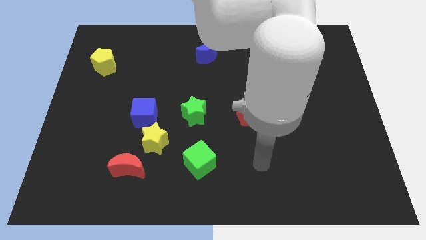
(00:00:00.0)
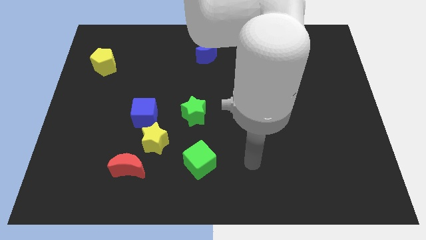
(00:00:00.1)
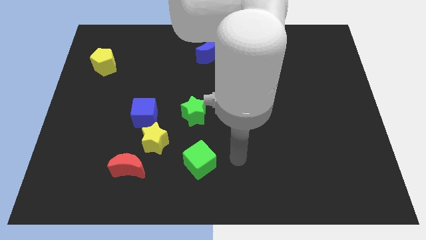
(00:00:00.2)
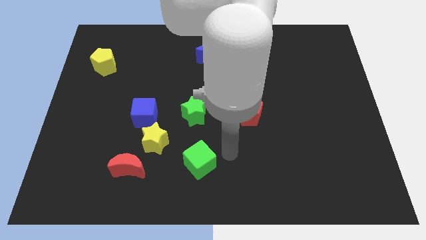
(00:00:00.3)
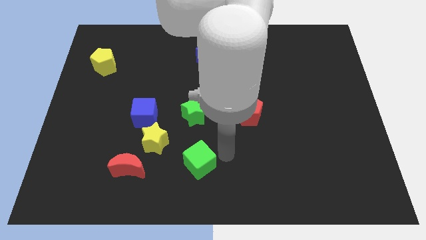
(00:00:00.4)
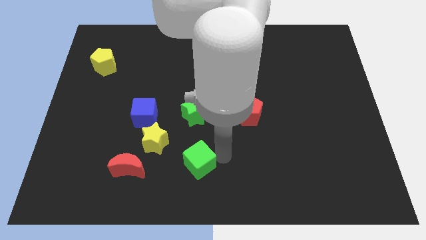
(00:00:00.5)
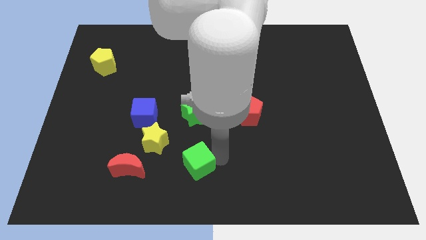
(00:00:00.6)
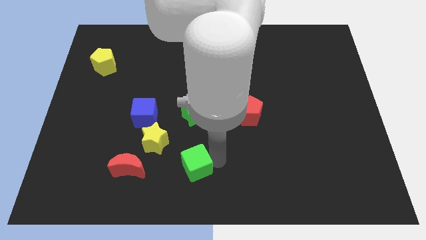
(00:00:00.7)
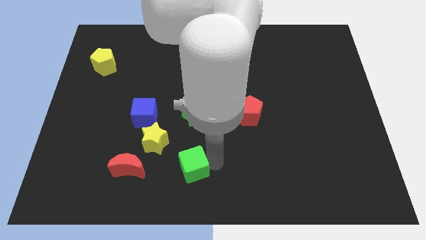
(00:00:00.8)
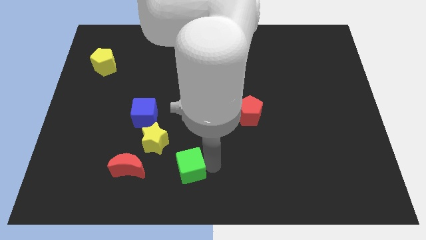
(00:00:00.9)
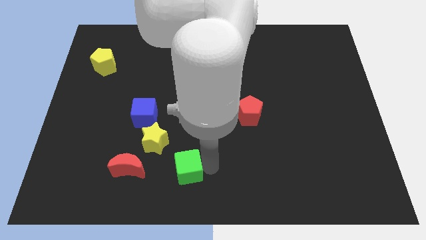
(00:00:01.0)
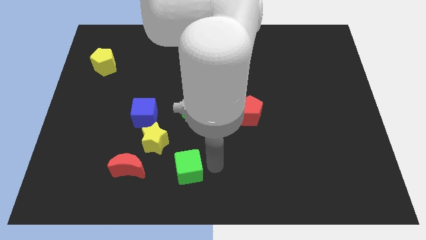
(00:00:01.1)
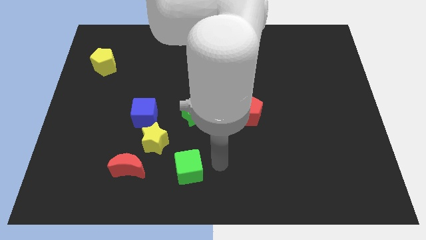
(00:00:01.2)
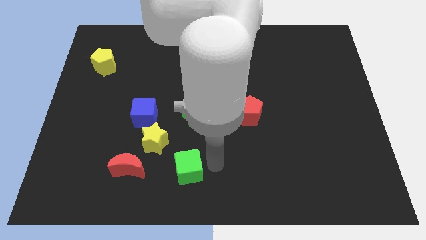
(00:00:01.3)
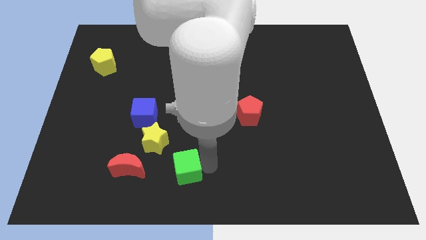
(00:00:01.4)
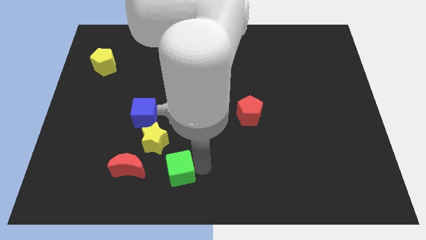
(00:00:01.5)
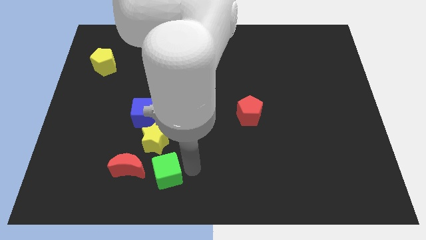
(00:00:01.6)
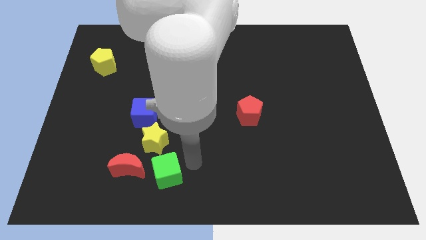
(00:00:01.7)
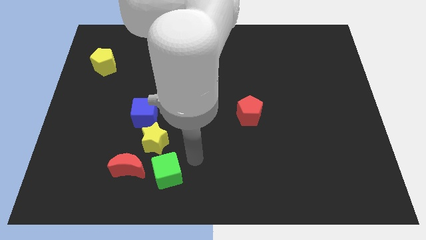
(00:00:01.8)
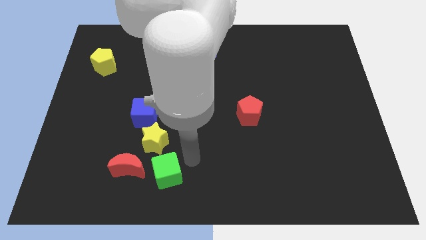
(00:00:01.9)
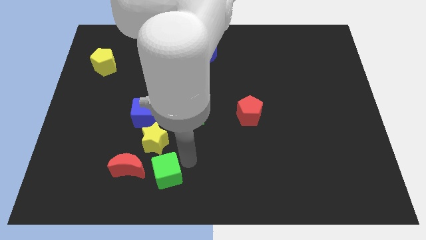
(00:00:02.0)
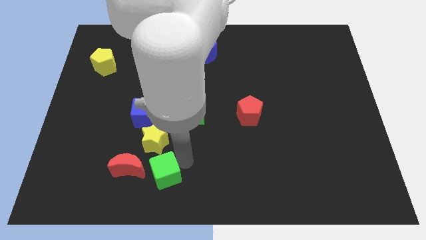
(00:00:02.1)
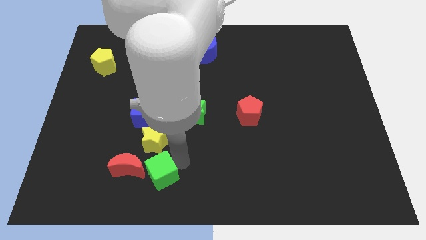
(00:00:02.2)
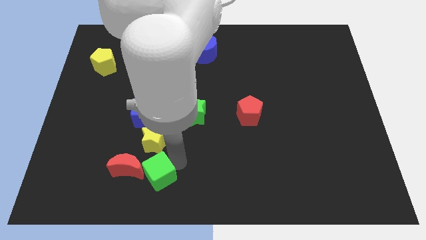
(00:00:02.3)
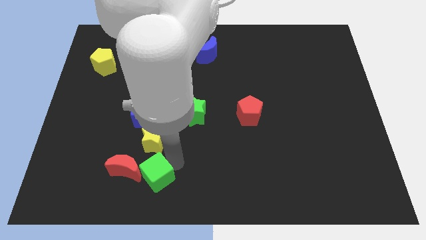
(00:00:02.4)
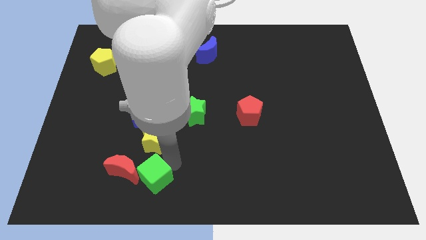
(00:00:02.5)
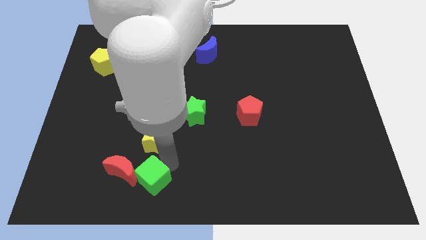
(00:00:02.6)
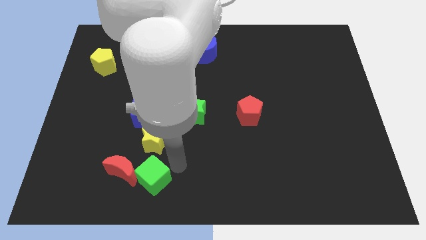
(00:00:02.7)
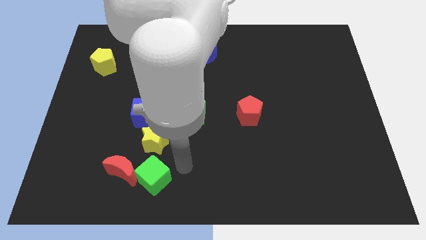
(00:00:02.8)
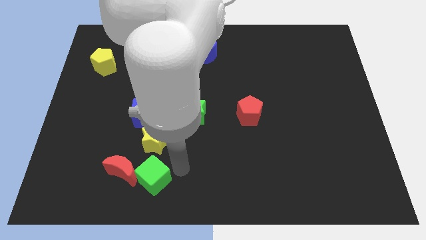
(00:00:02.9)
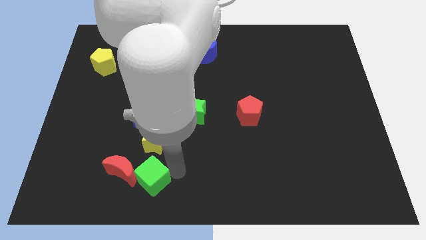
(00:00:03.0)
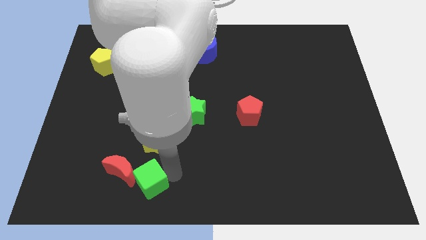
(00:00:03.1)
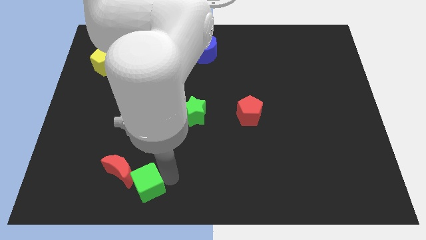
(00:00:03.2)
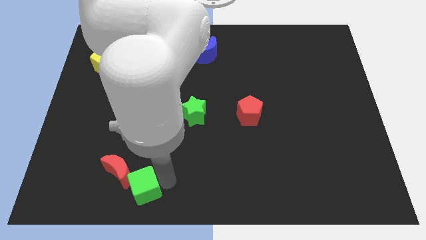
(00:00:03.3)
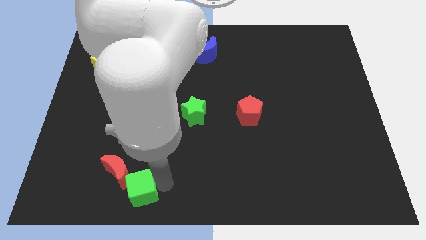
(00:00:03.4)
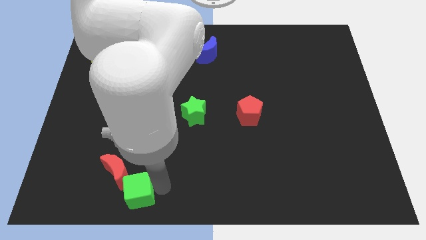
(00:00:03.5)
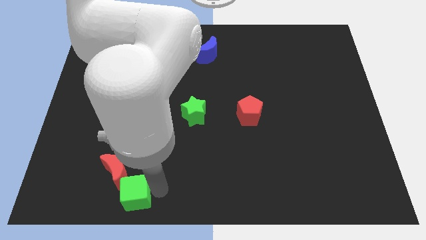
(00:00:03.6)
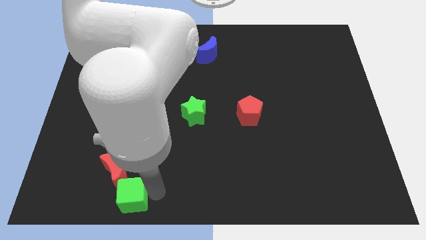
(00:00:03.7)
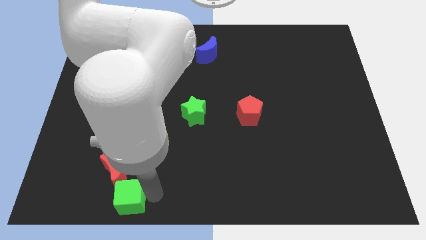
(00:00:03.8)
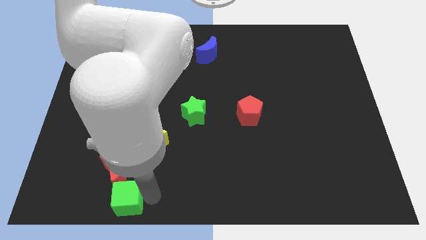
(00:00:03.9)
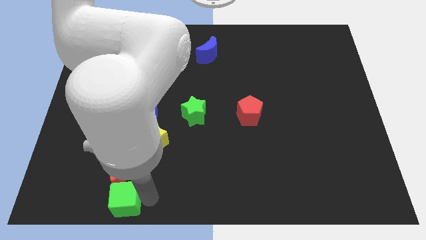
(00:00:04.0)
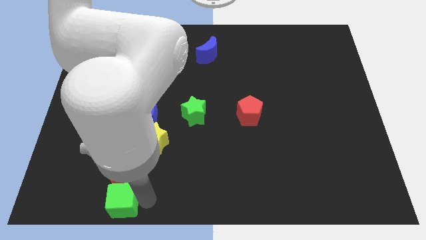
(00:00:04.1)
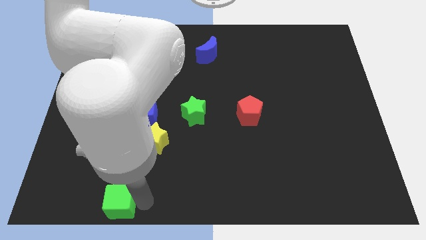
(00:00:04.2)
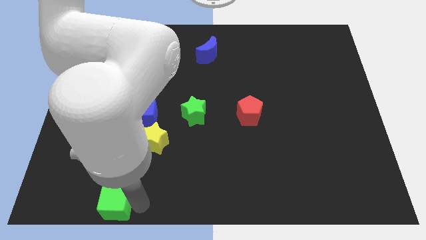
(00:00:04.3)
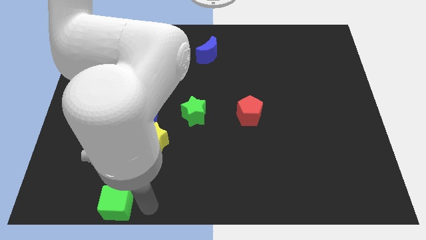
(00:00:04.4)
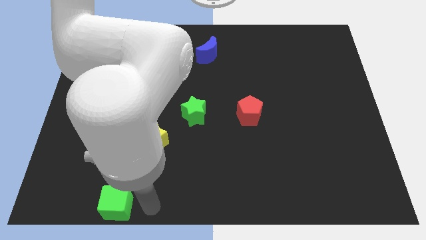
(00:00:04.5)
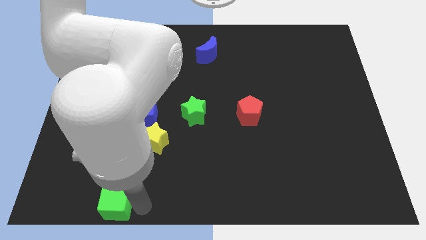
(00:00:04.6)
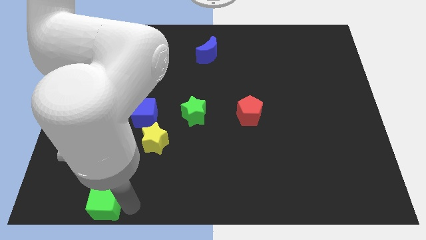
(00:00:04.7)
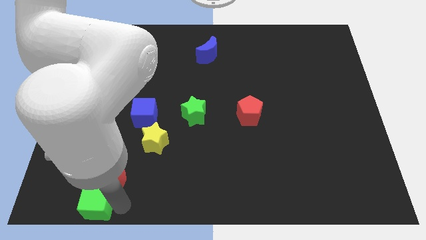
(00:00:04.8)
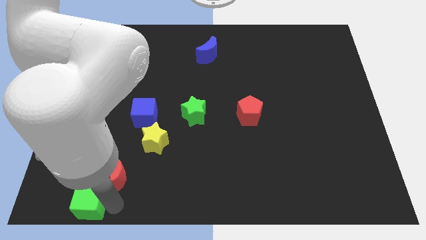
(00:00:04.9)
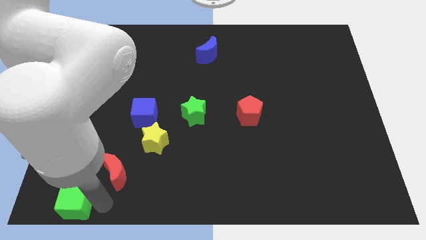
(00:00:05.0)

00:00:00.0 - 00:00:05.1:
slide the green cube to the bottom left

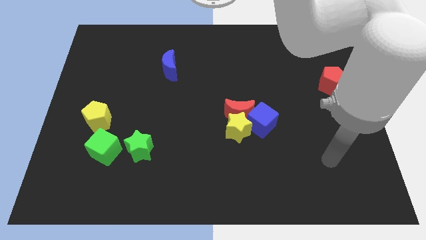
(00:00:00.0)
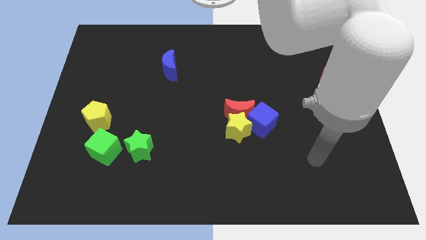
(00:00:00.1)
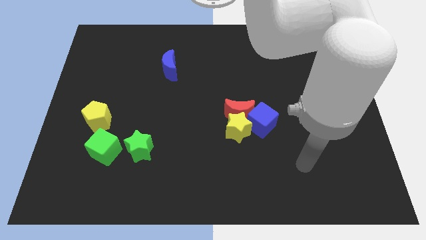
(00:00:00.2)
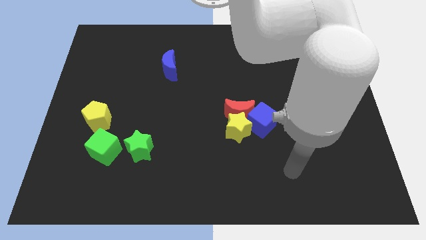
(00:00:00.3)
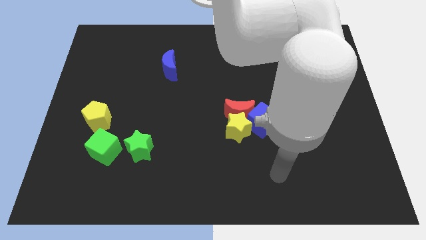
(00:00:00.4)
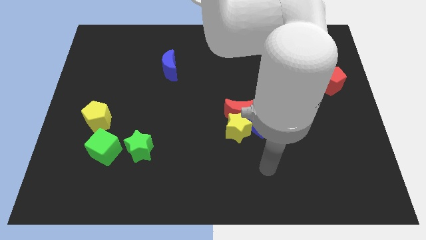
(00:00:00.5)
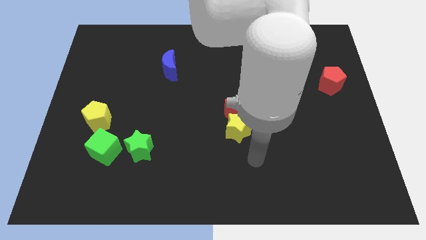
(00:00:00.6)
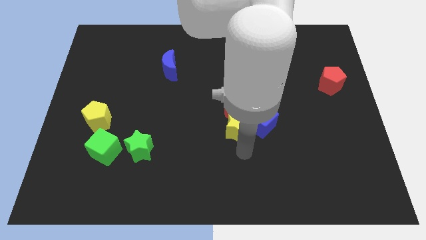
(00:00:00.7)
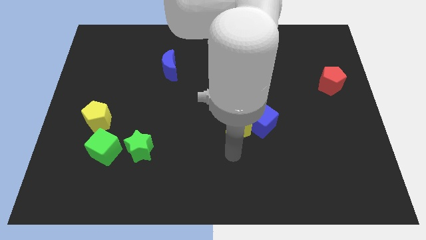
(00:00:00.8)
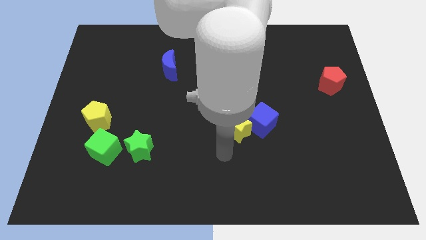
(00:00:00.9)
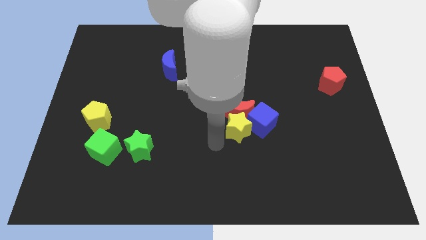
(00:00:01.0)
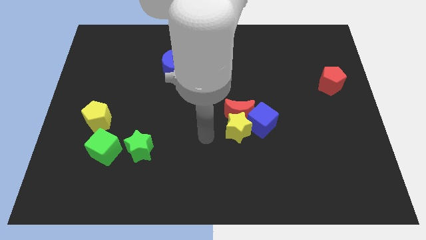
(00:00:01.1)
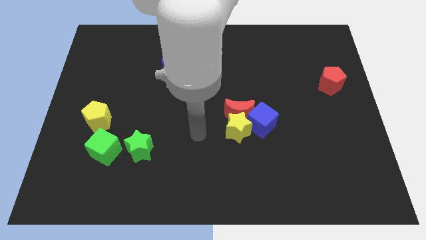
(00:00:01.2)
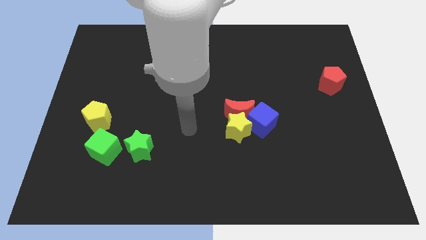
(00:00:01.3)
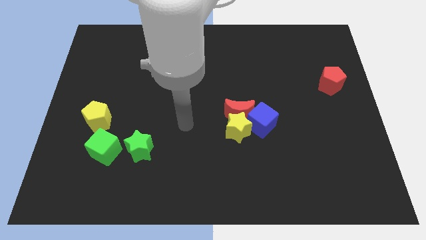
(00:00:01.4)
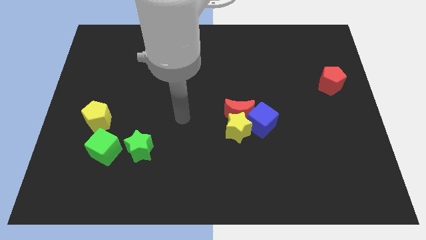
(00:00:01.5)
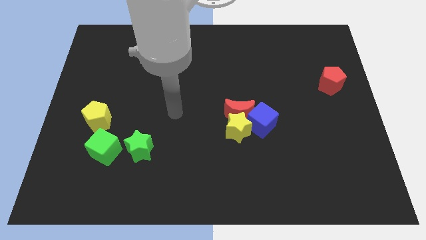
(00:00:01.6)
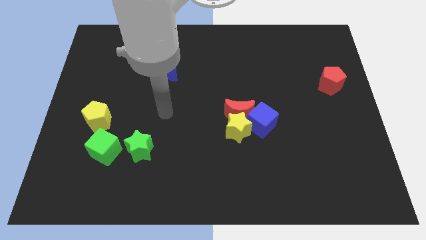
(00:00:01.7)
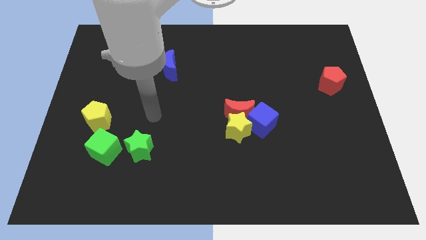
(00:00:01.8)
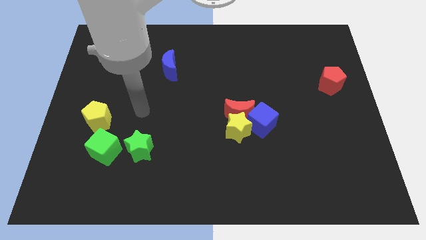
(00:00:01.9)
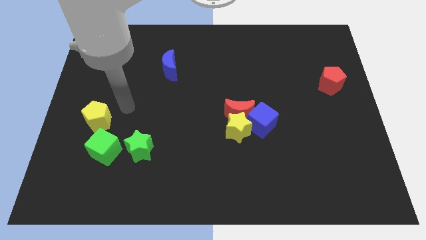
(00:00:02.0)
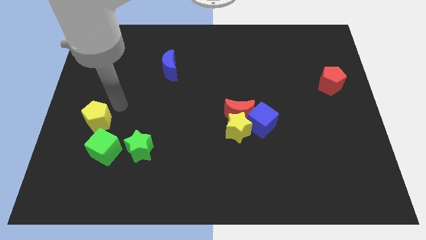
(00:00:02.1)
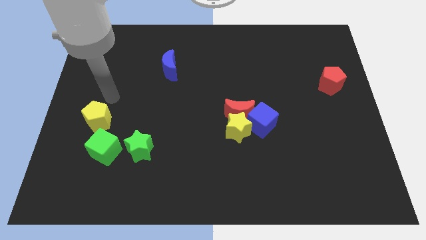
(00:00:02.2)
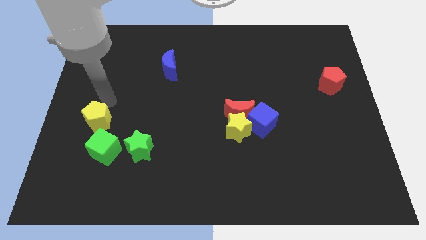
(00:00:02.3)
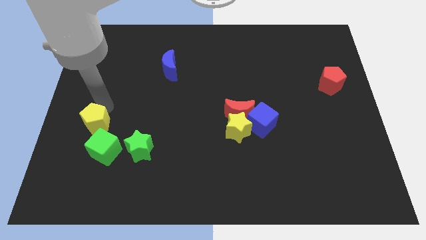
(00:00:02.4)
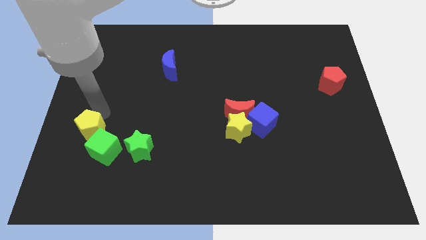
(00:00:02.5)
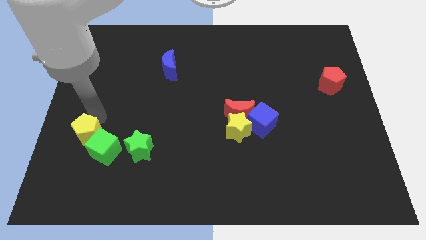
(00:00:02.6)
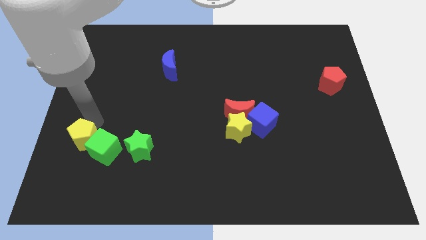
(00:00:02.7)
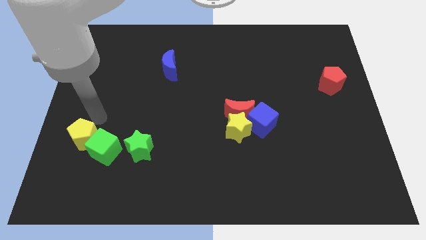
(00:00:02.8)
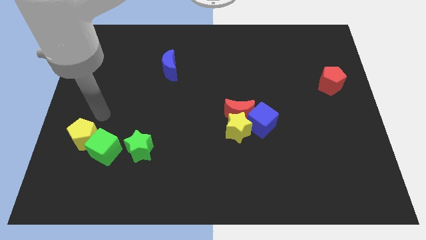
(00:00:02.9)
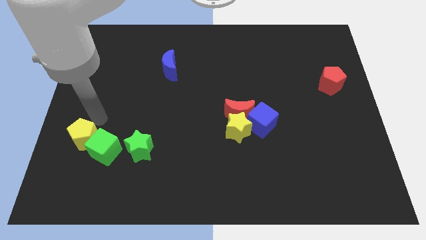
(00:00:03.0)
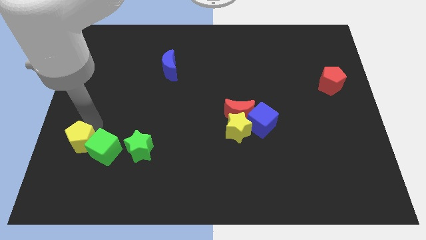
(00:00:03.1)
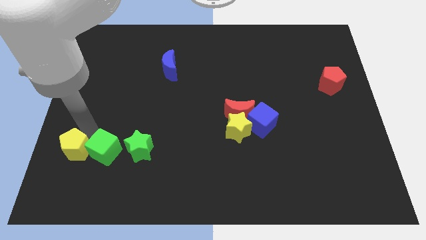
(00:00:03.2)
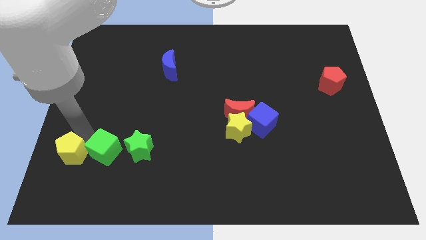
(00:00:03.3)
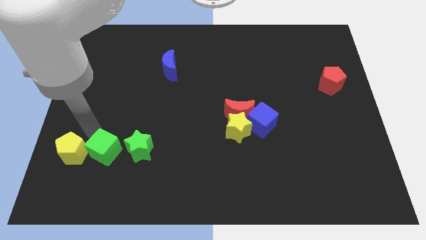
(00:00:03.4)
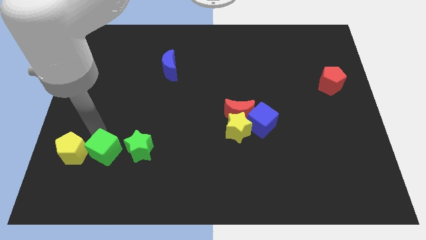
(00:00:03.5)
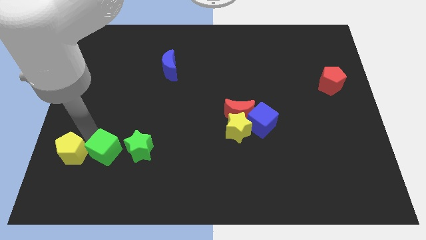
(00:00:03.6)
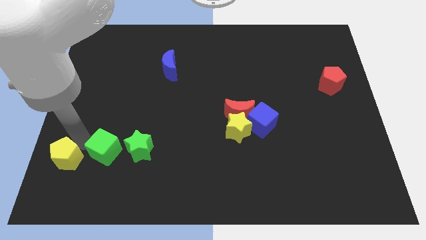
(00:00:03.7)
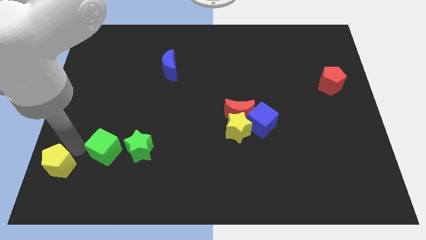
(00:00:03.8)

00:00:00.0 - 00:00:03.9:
put the yellow pentagon to the bottom left of the board
